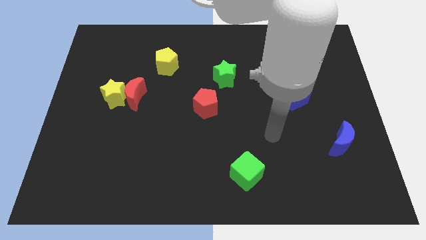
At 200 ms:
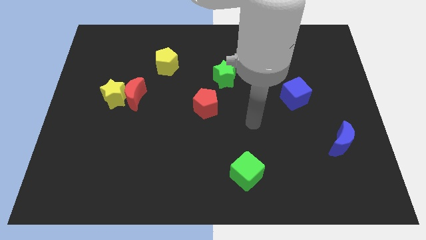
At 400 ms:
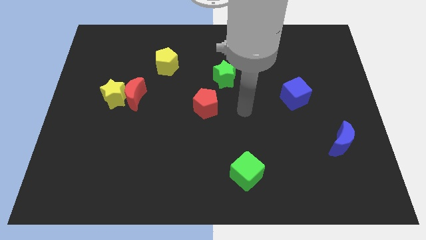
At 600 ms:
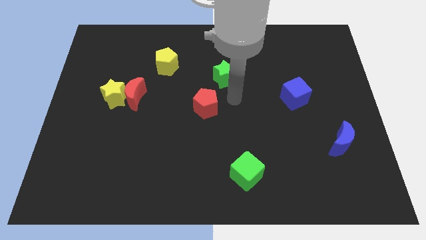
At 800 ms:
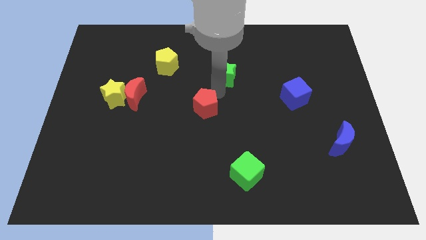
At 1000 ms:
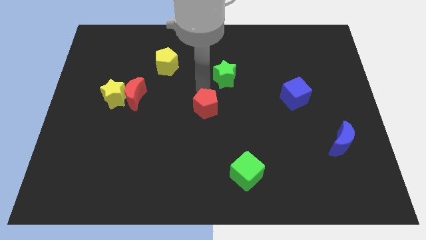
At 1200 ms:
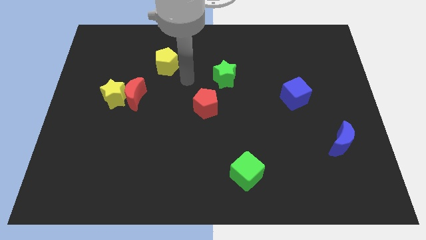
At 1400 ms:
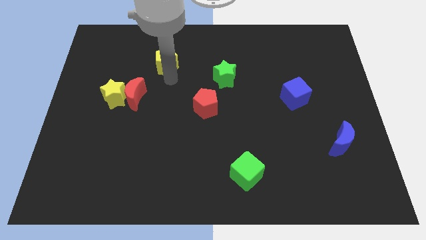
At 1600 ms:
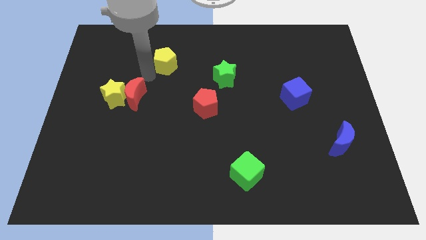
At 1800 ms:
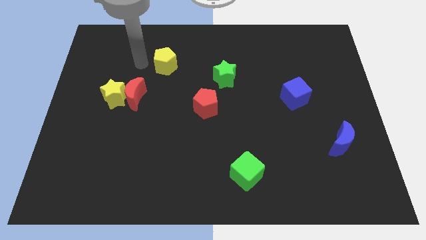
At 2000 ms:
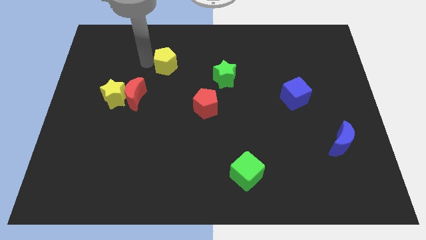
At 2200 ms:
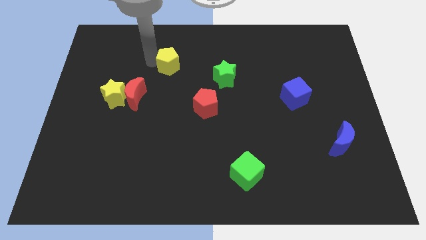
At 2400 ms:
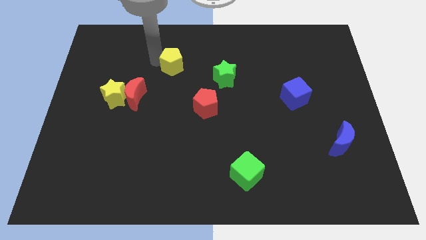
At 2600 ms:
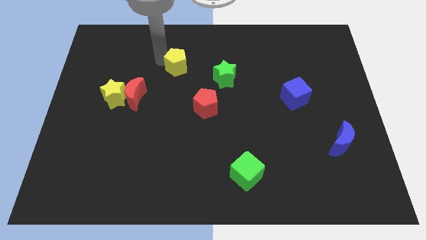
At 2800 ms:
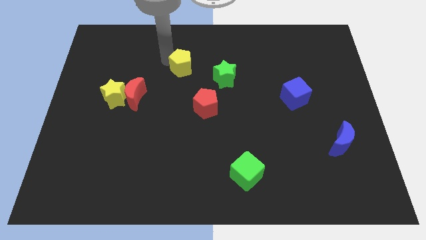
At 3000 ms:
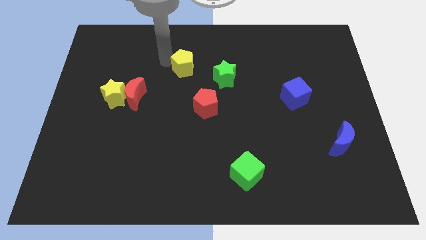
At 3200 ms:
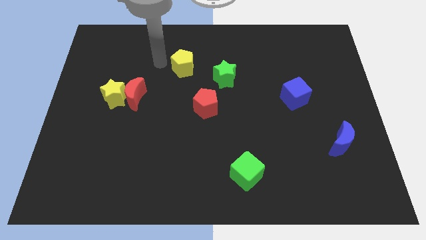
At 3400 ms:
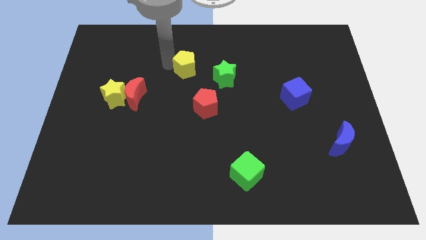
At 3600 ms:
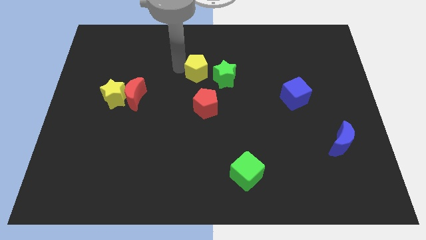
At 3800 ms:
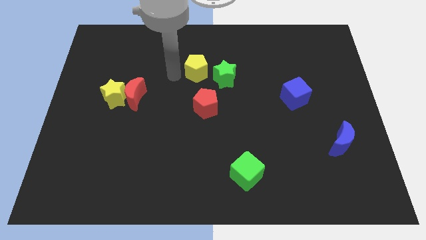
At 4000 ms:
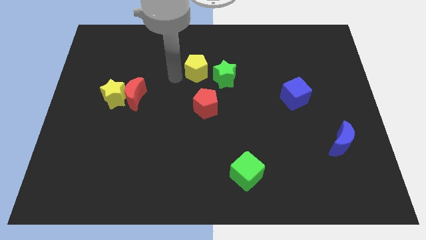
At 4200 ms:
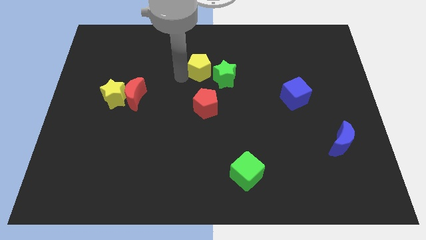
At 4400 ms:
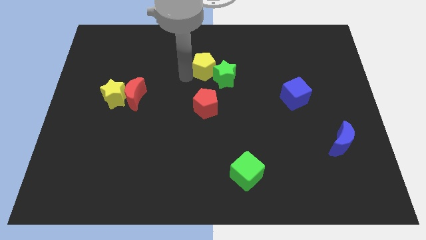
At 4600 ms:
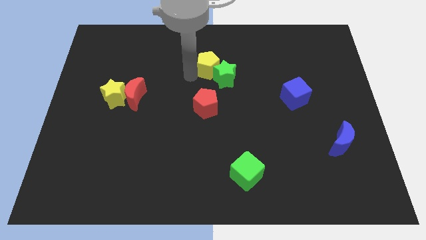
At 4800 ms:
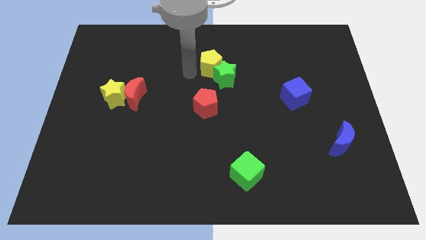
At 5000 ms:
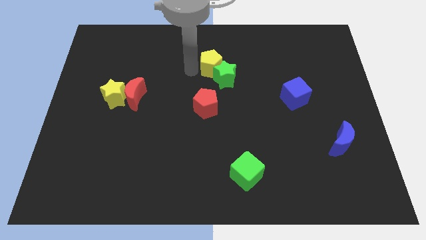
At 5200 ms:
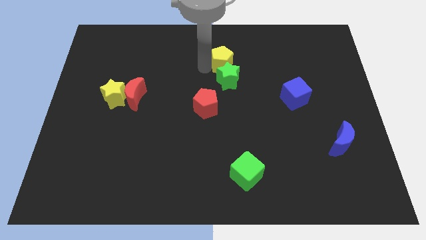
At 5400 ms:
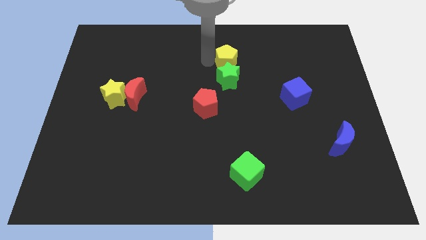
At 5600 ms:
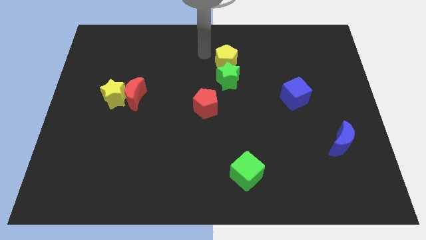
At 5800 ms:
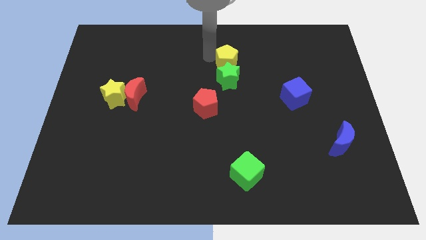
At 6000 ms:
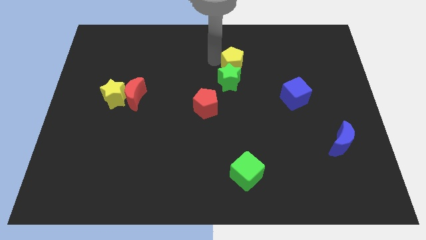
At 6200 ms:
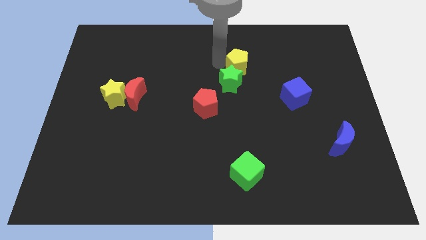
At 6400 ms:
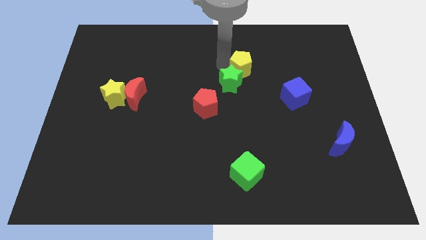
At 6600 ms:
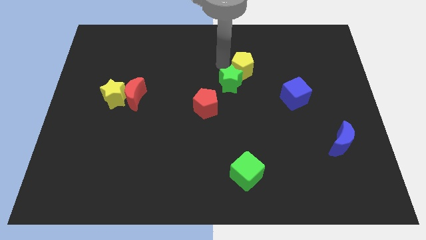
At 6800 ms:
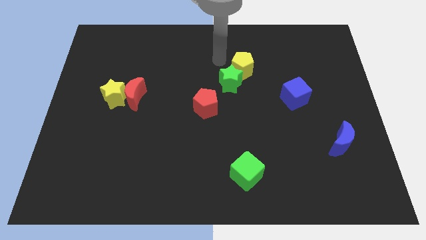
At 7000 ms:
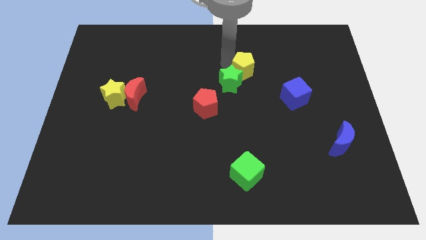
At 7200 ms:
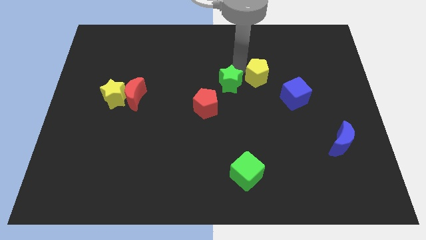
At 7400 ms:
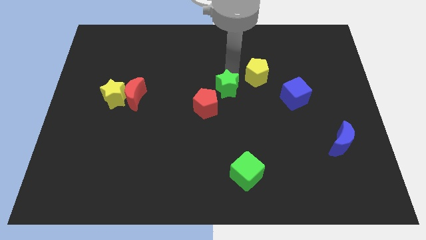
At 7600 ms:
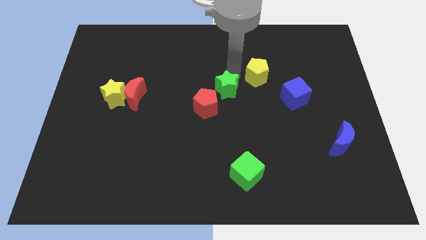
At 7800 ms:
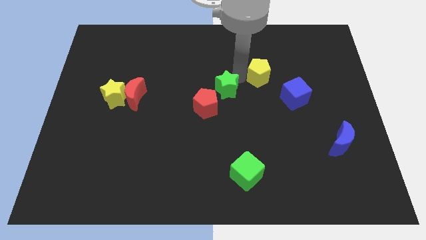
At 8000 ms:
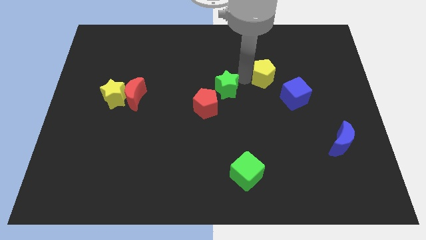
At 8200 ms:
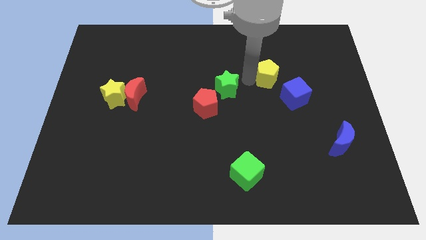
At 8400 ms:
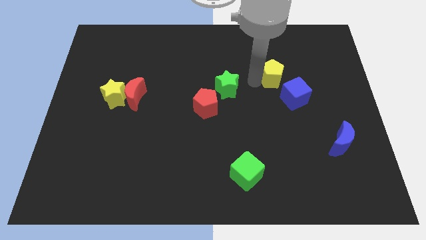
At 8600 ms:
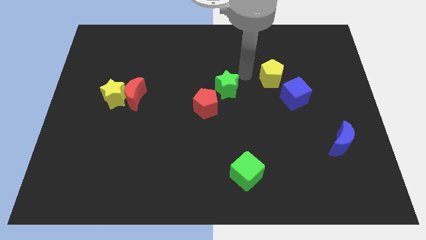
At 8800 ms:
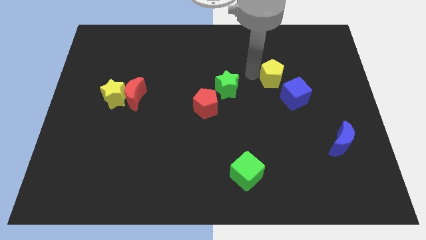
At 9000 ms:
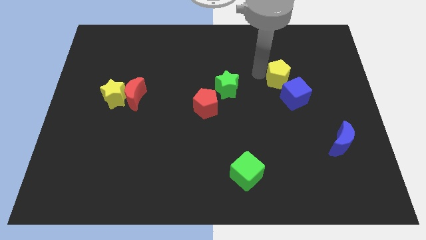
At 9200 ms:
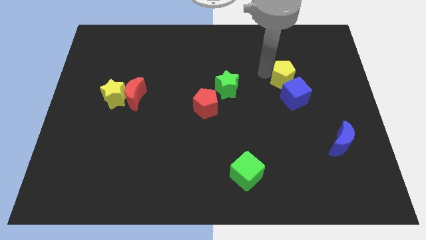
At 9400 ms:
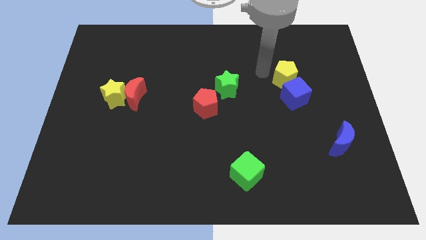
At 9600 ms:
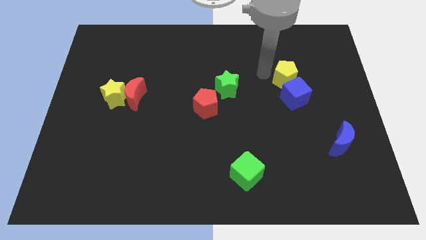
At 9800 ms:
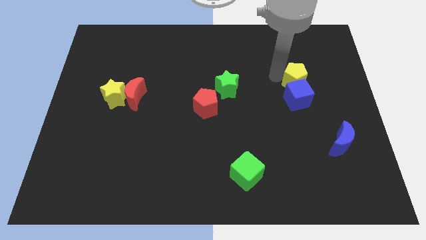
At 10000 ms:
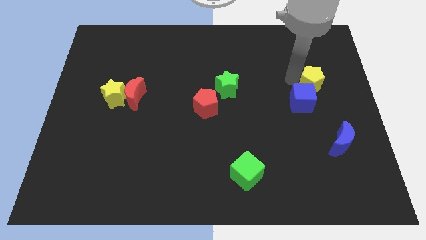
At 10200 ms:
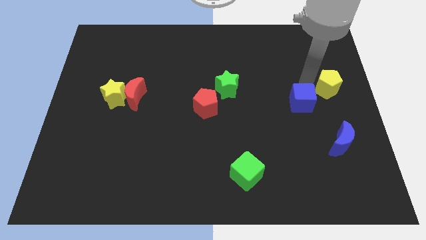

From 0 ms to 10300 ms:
put the yellow pentagon to the center right
